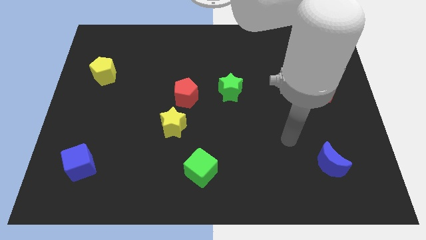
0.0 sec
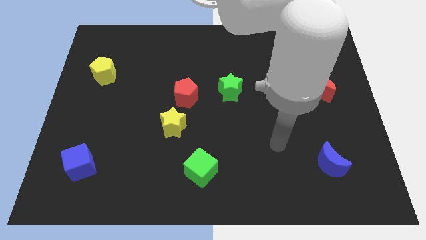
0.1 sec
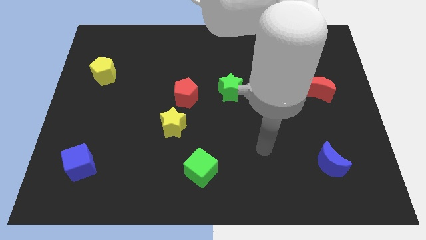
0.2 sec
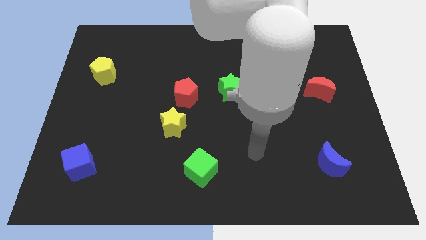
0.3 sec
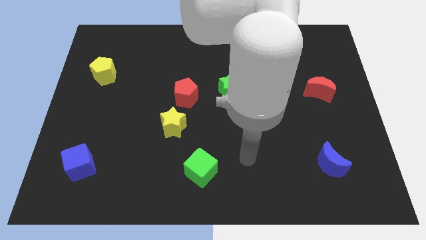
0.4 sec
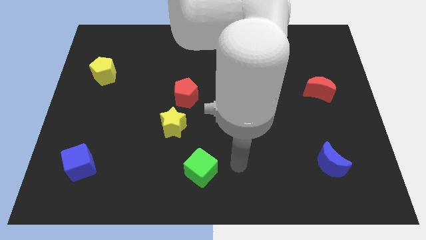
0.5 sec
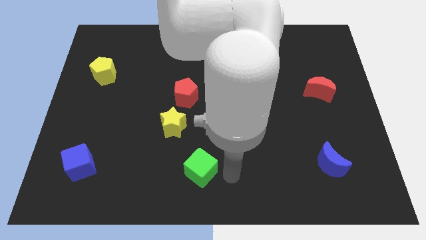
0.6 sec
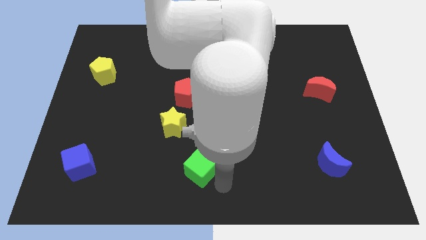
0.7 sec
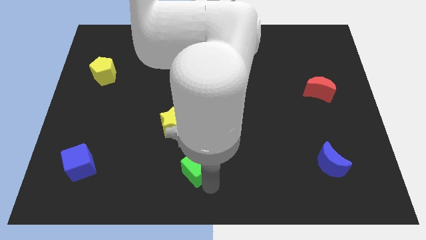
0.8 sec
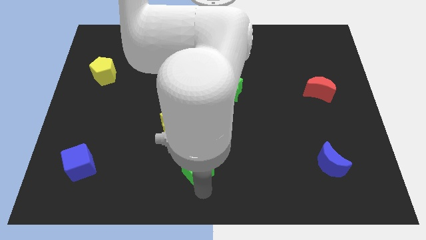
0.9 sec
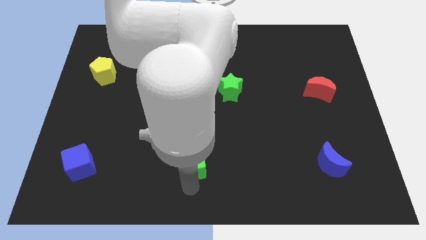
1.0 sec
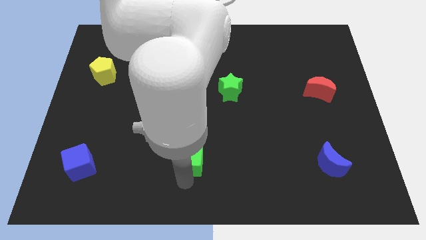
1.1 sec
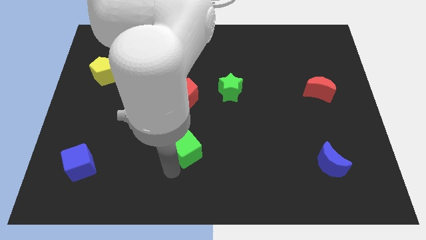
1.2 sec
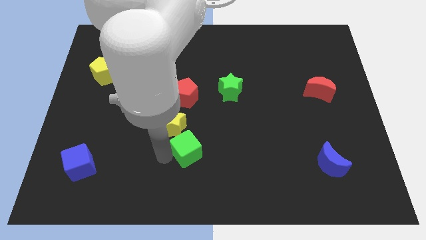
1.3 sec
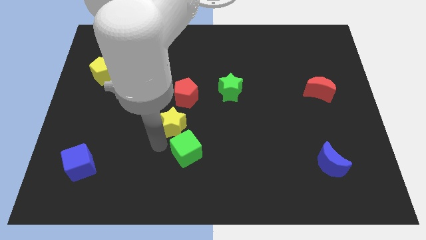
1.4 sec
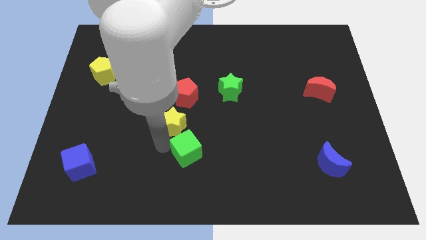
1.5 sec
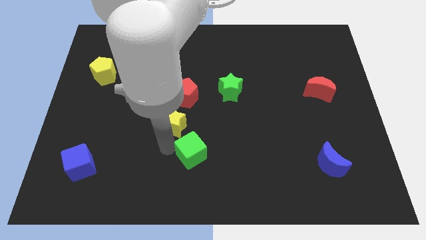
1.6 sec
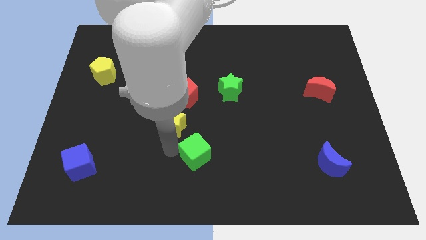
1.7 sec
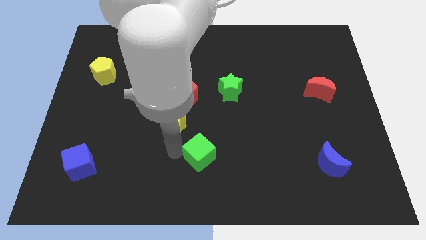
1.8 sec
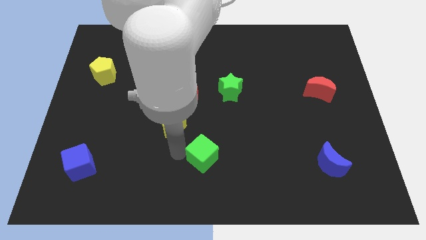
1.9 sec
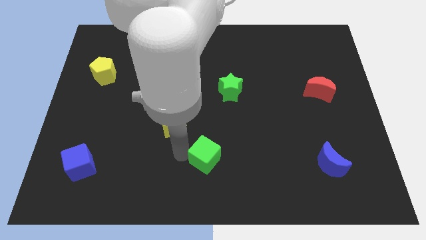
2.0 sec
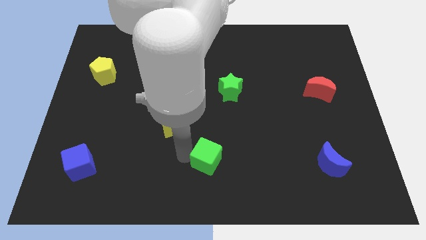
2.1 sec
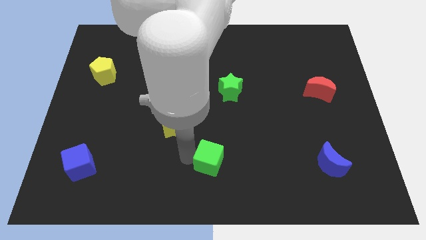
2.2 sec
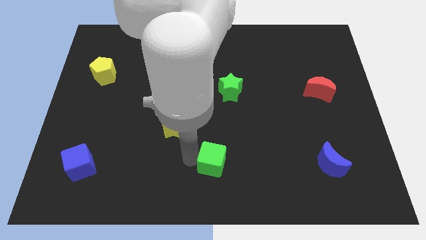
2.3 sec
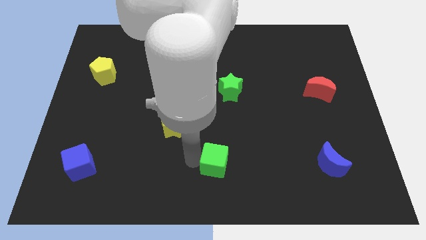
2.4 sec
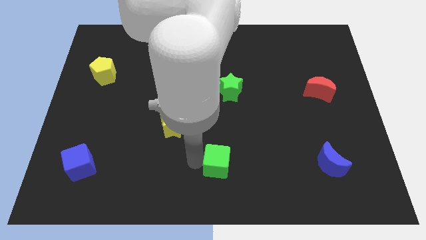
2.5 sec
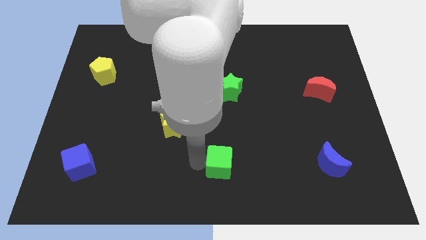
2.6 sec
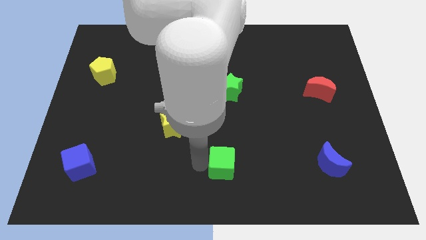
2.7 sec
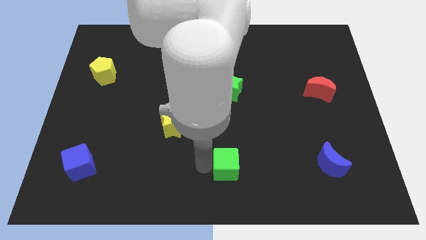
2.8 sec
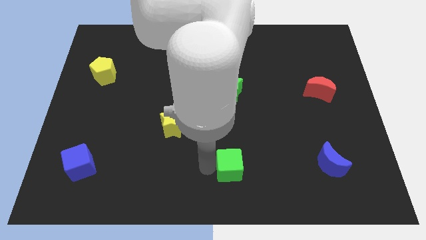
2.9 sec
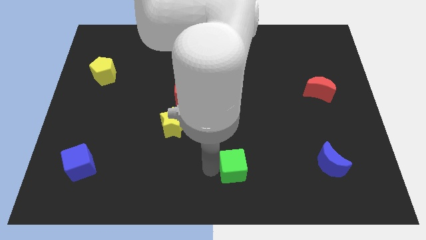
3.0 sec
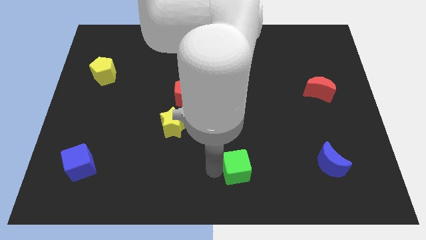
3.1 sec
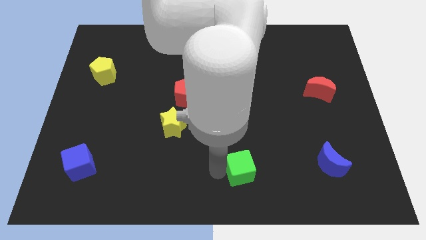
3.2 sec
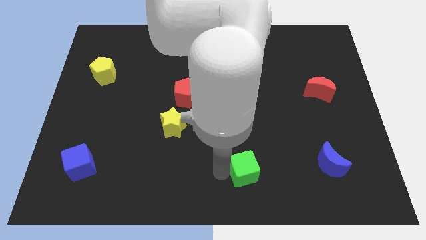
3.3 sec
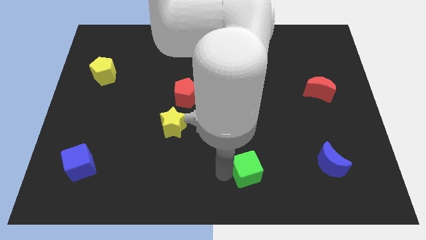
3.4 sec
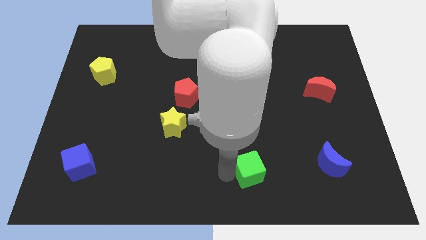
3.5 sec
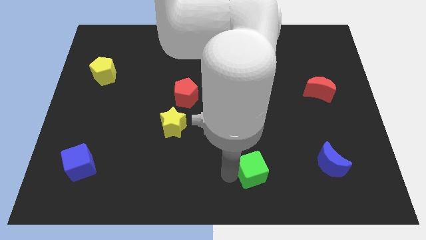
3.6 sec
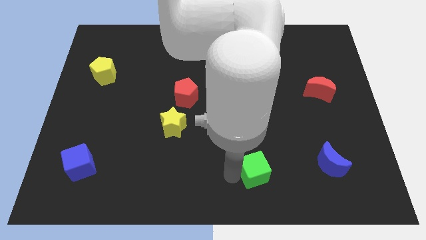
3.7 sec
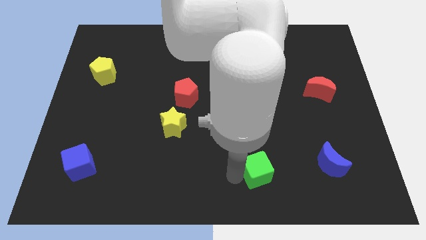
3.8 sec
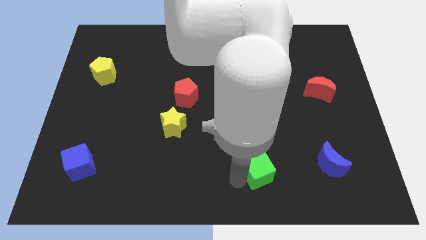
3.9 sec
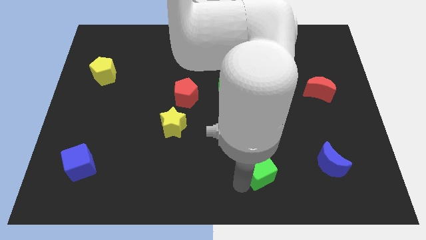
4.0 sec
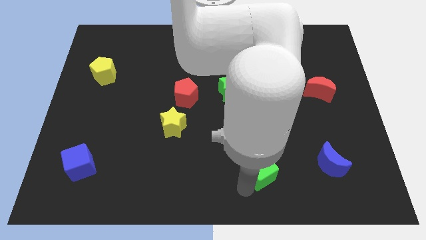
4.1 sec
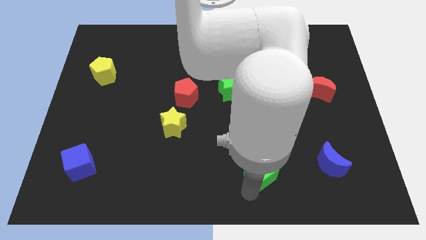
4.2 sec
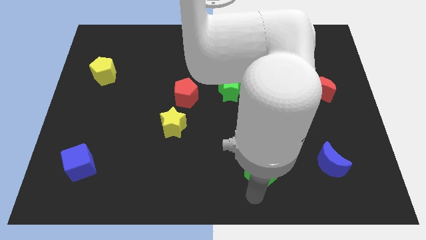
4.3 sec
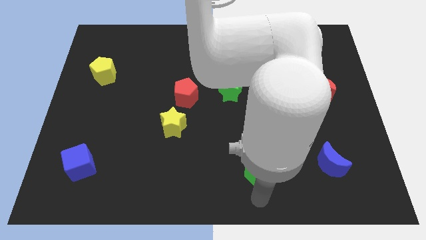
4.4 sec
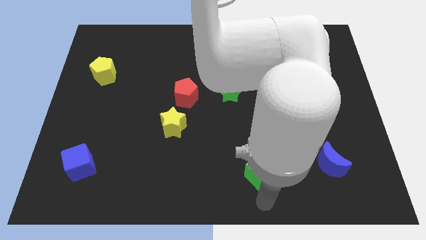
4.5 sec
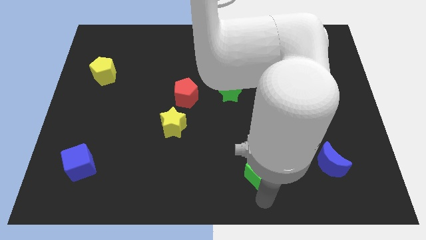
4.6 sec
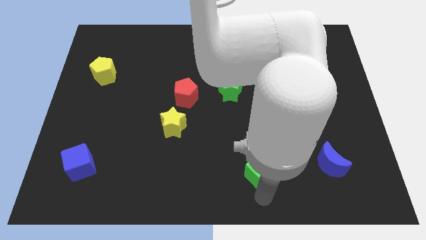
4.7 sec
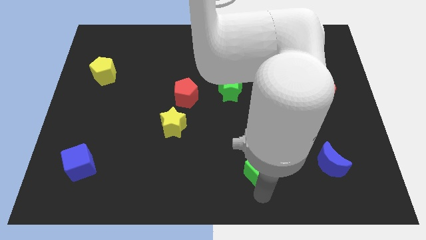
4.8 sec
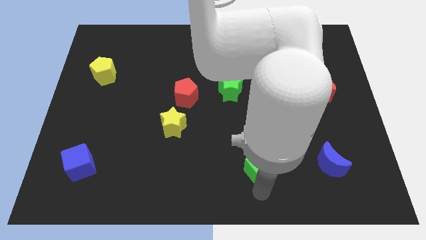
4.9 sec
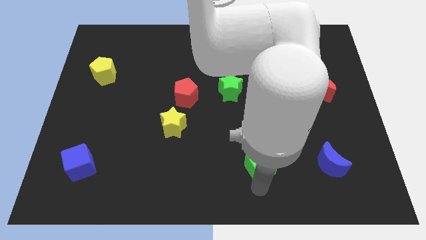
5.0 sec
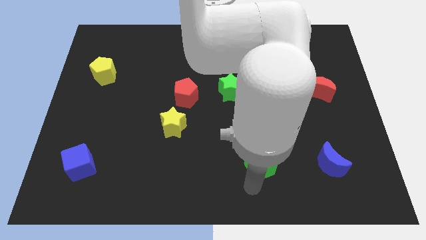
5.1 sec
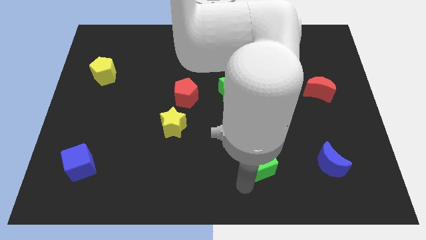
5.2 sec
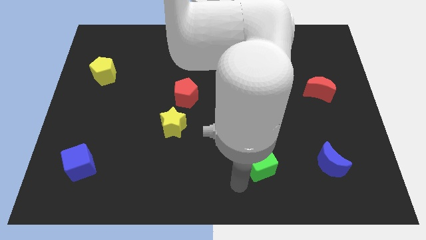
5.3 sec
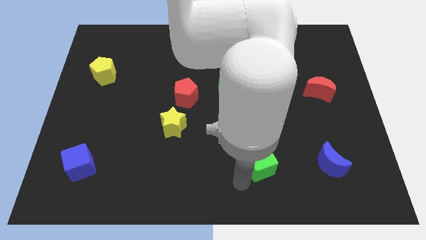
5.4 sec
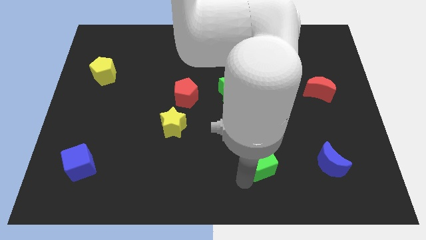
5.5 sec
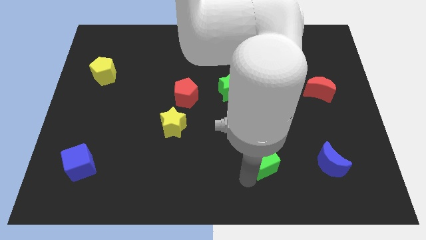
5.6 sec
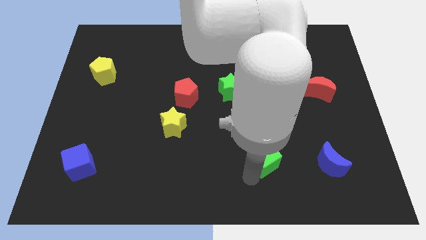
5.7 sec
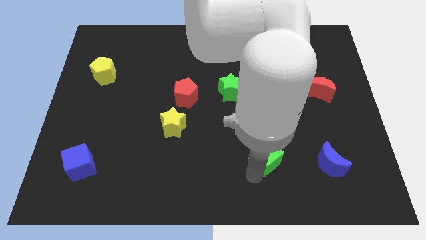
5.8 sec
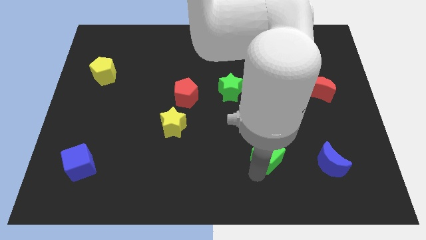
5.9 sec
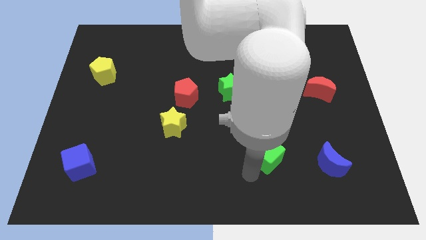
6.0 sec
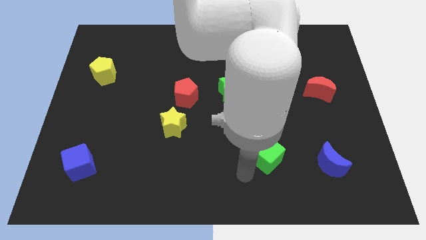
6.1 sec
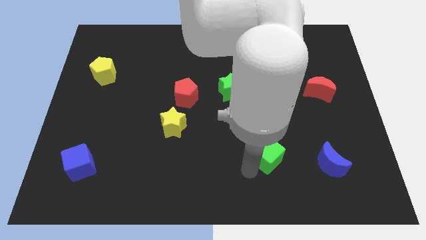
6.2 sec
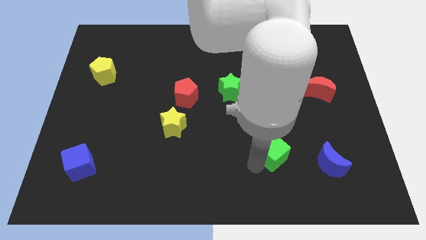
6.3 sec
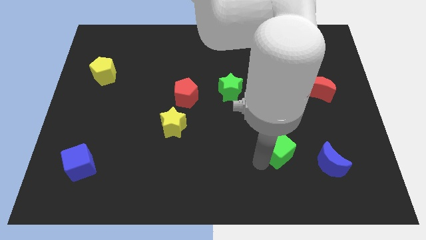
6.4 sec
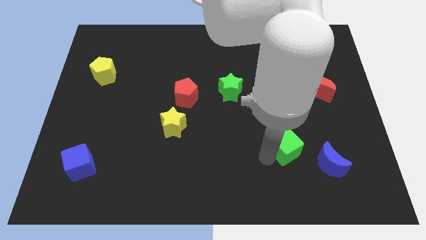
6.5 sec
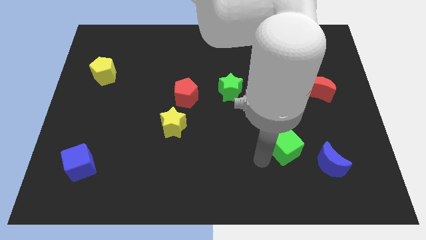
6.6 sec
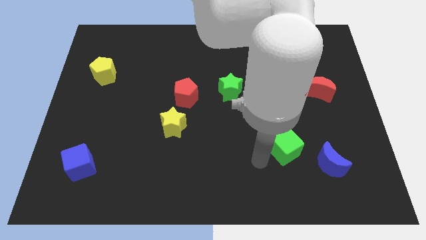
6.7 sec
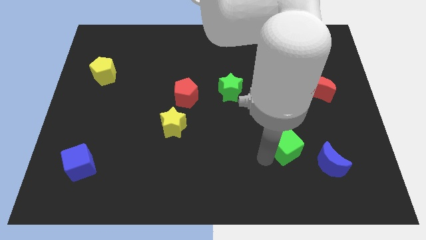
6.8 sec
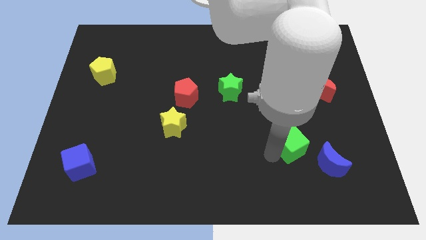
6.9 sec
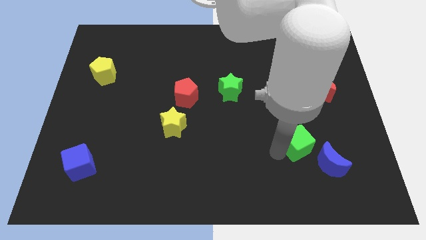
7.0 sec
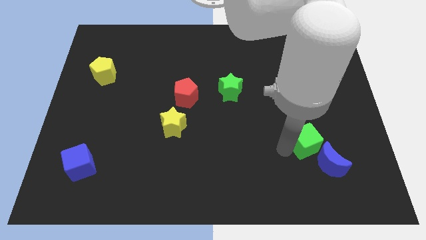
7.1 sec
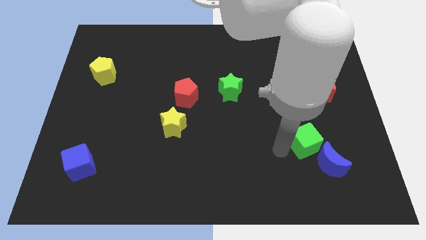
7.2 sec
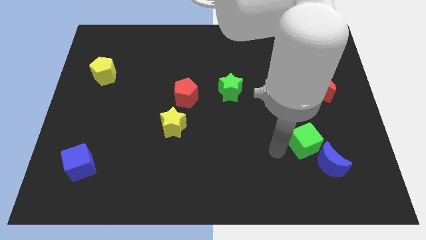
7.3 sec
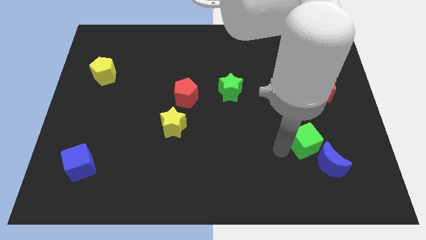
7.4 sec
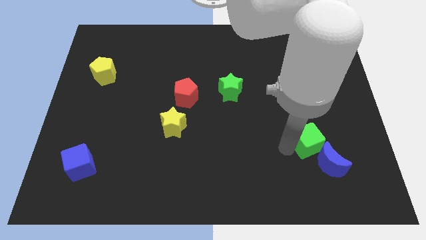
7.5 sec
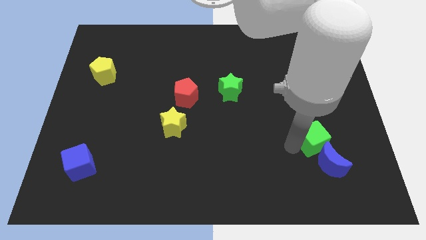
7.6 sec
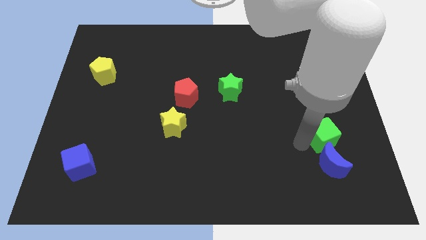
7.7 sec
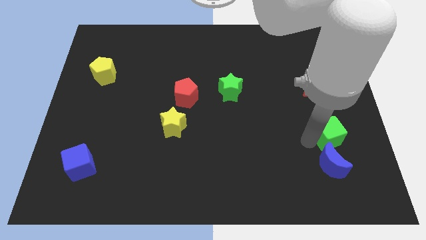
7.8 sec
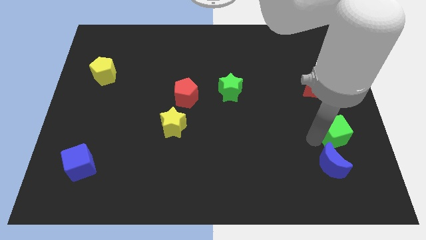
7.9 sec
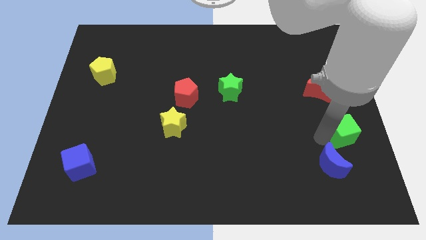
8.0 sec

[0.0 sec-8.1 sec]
move the green cube to the right side of the board

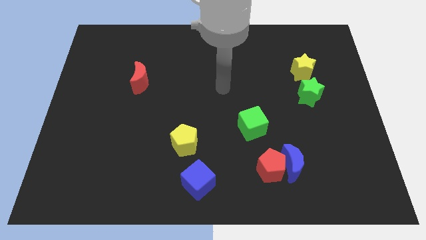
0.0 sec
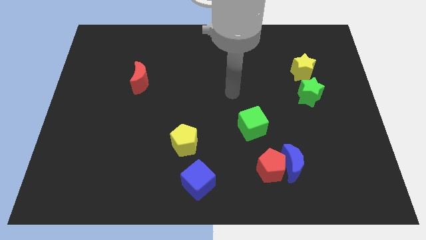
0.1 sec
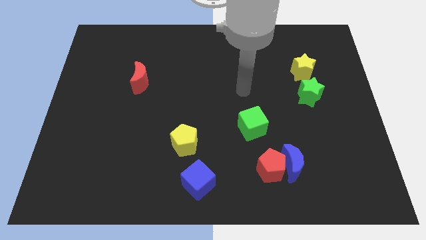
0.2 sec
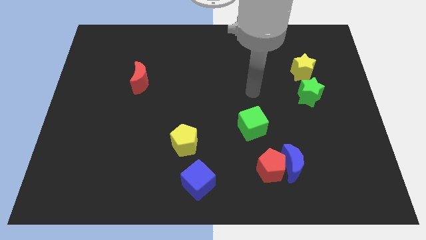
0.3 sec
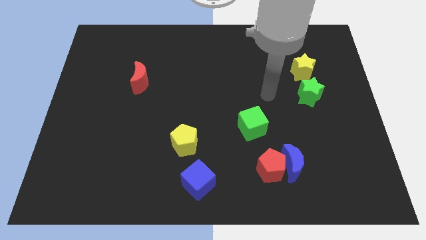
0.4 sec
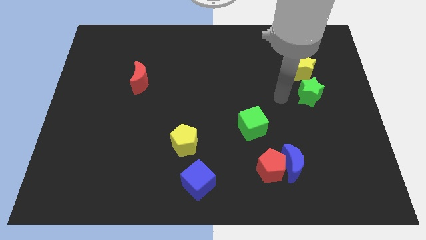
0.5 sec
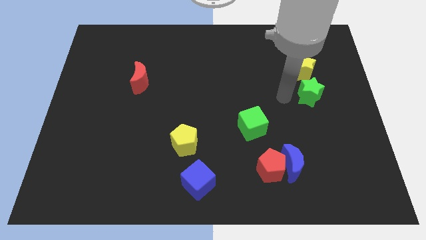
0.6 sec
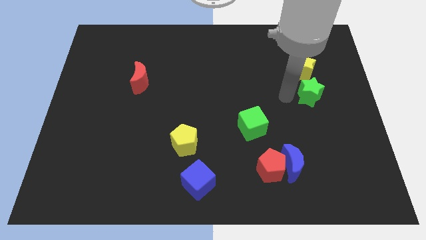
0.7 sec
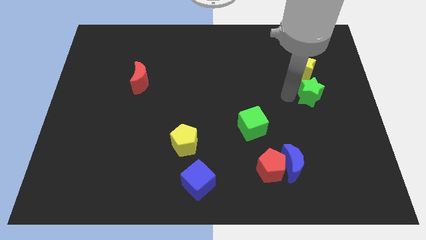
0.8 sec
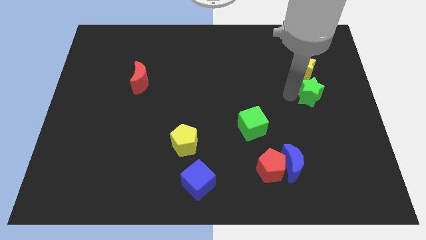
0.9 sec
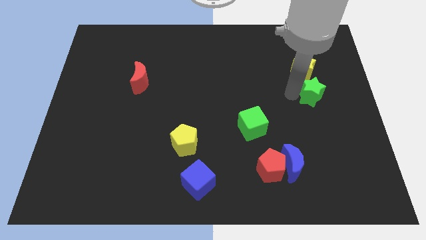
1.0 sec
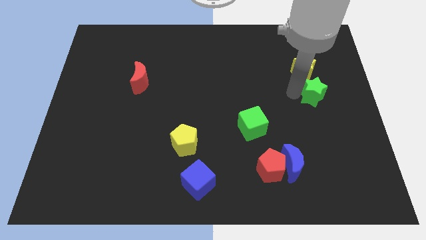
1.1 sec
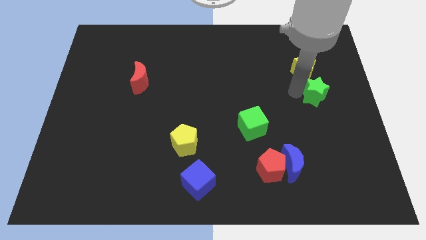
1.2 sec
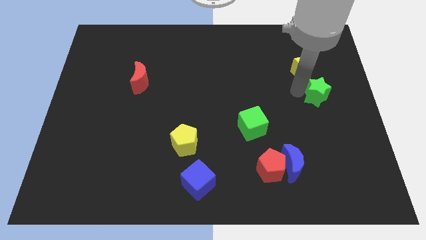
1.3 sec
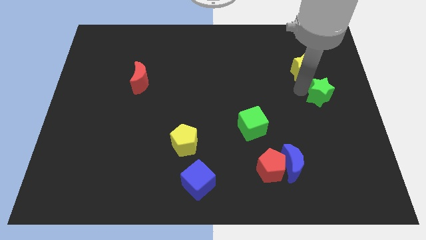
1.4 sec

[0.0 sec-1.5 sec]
push the green star to the right side of the board
